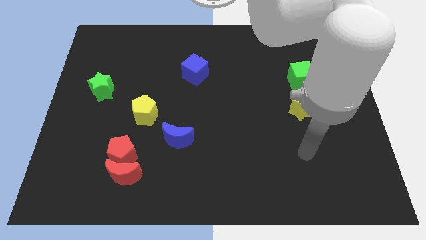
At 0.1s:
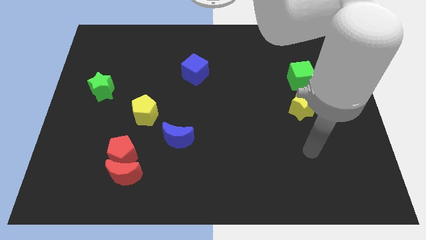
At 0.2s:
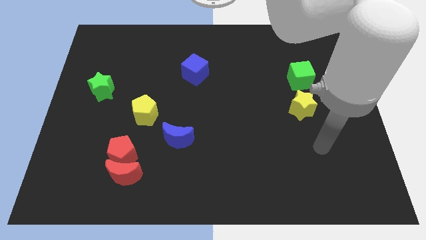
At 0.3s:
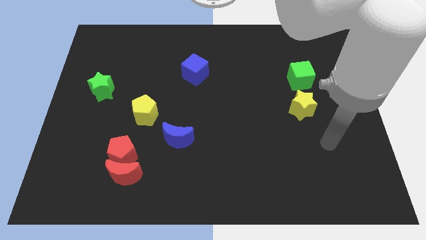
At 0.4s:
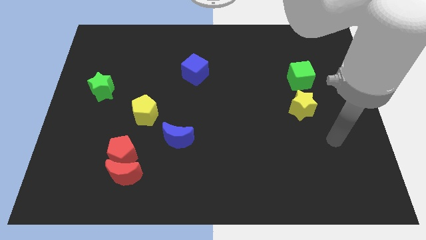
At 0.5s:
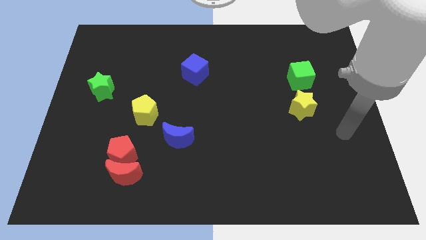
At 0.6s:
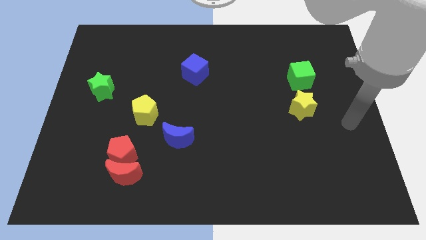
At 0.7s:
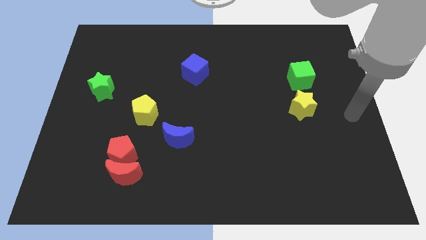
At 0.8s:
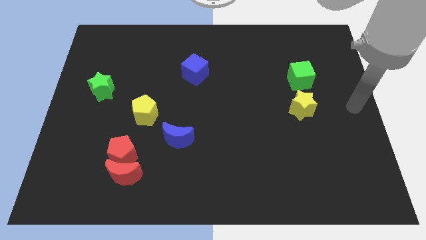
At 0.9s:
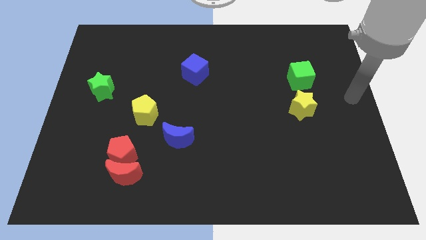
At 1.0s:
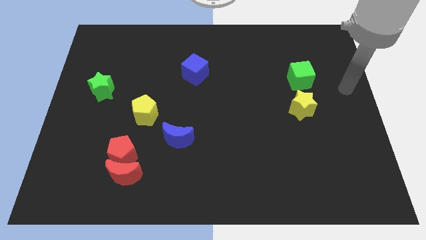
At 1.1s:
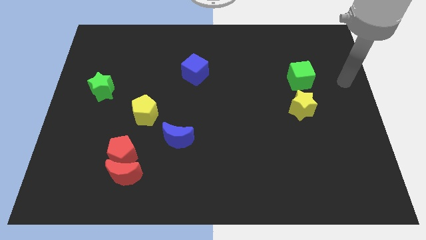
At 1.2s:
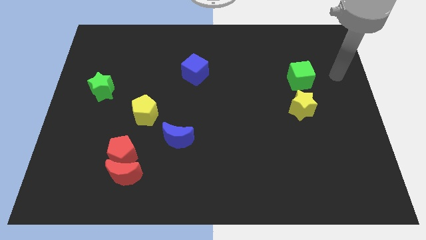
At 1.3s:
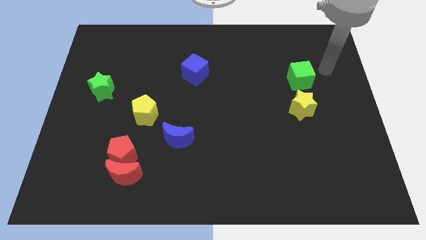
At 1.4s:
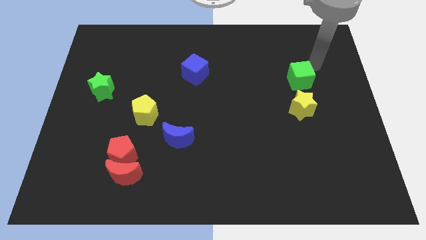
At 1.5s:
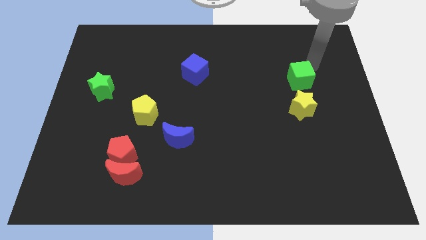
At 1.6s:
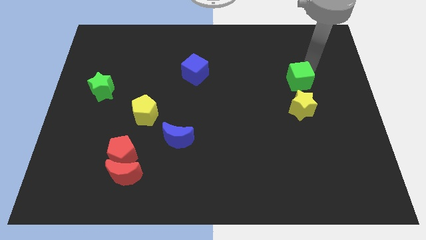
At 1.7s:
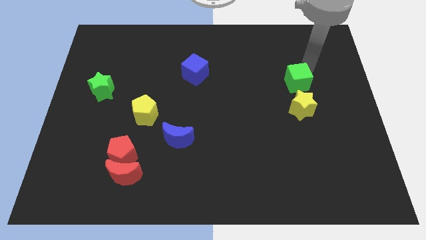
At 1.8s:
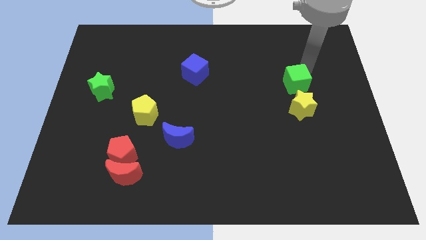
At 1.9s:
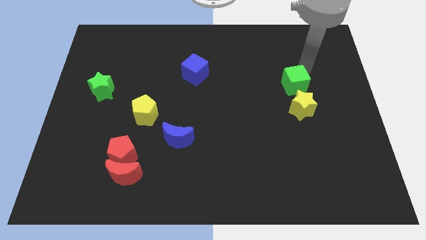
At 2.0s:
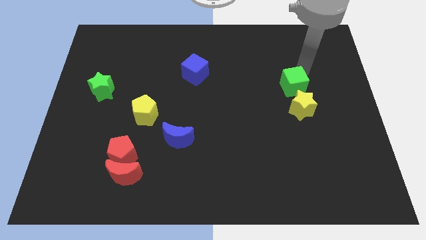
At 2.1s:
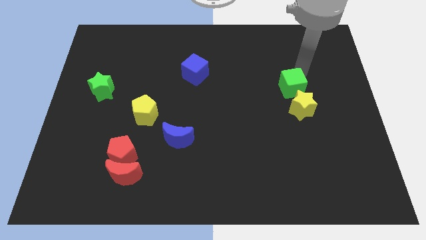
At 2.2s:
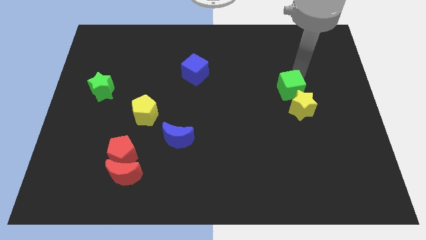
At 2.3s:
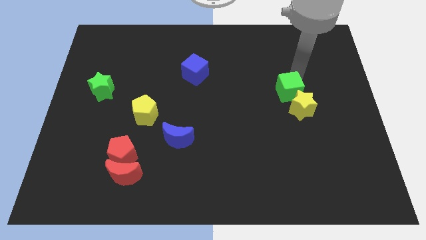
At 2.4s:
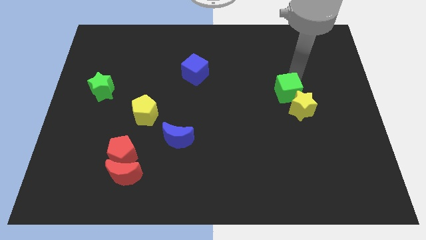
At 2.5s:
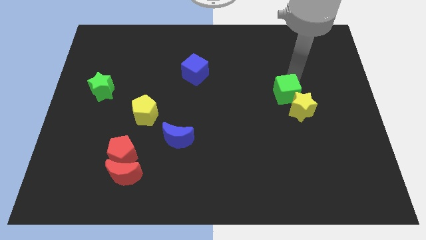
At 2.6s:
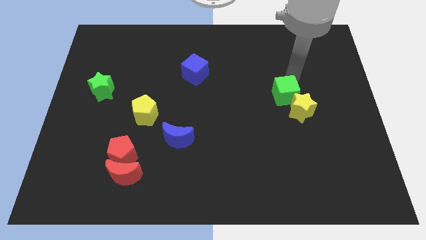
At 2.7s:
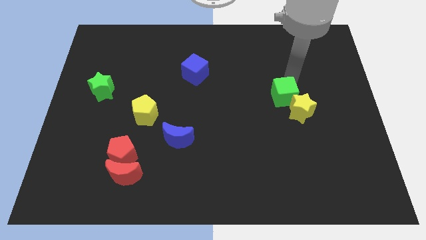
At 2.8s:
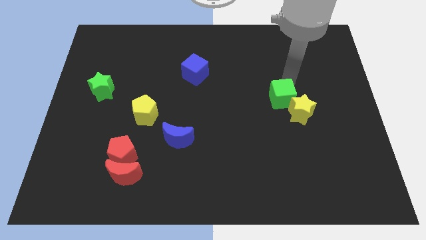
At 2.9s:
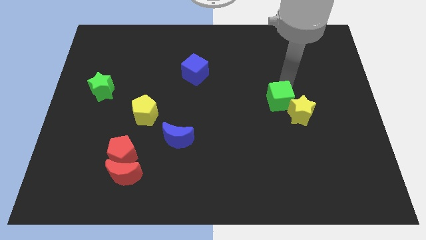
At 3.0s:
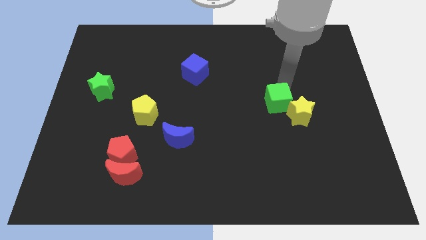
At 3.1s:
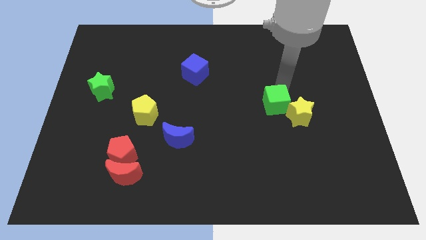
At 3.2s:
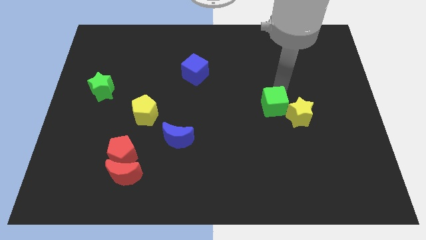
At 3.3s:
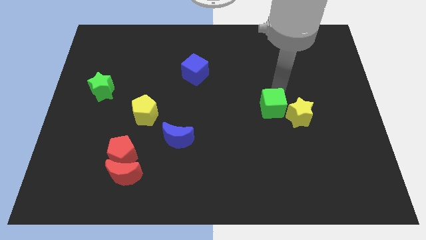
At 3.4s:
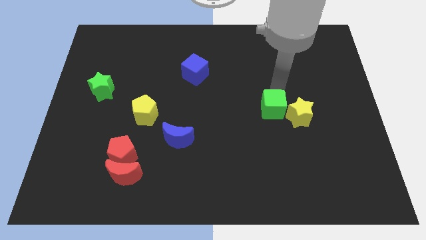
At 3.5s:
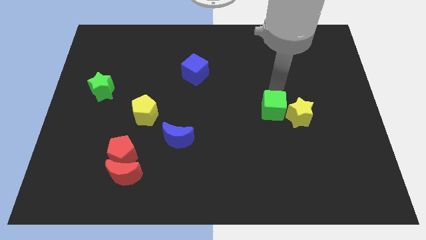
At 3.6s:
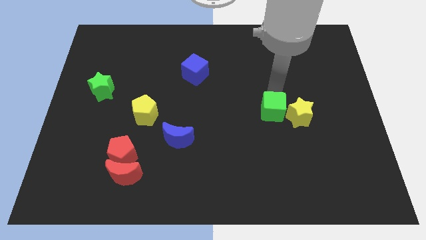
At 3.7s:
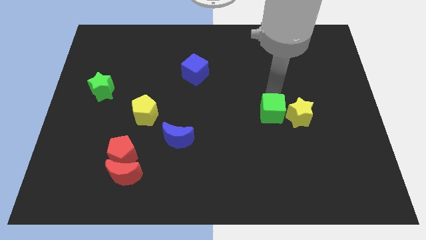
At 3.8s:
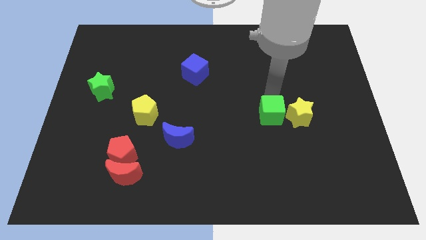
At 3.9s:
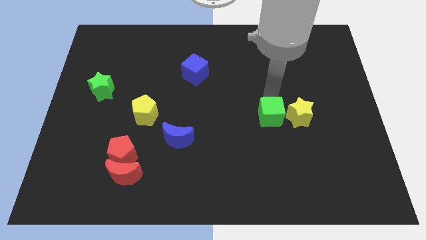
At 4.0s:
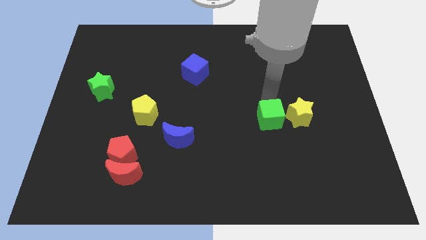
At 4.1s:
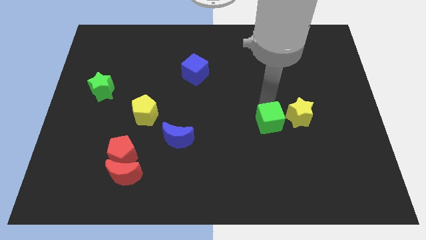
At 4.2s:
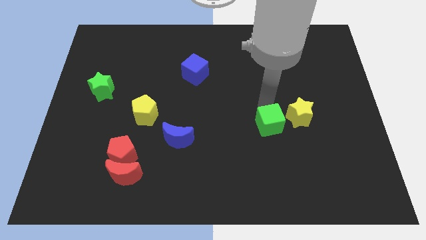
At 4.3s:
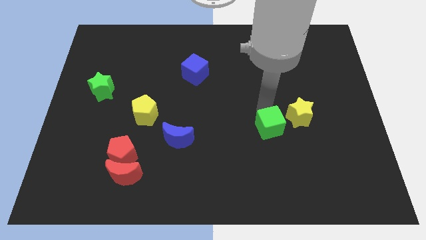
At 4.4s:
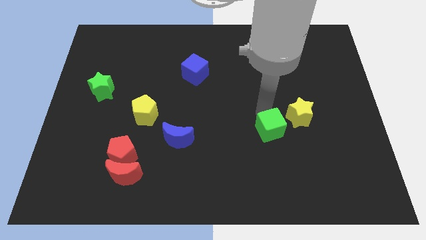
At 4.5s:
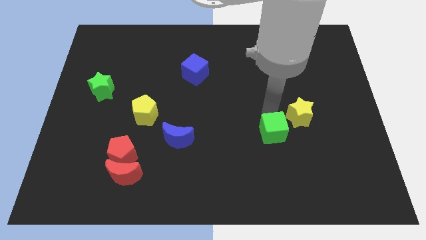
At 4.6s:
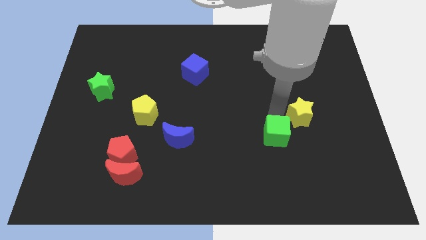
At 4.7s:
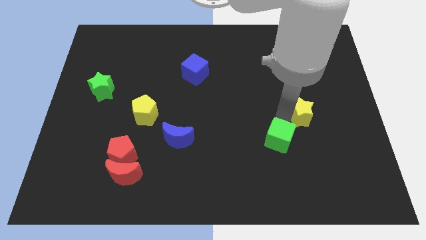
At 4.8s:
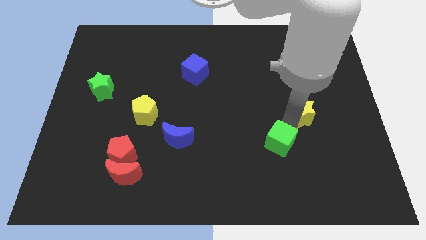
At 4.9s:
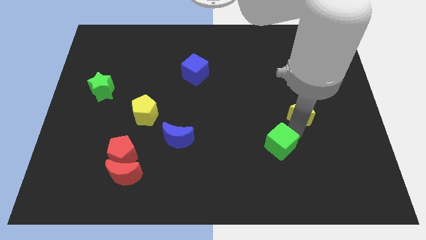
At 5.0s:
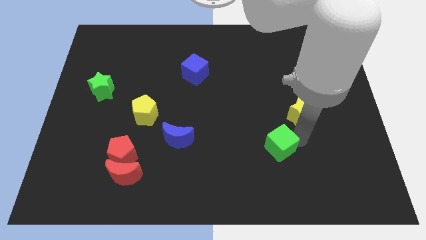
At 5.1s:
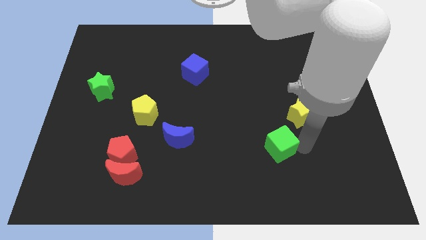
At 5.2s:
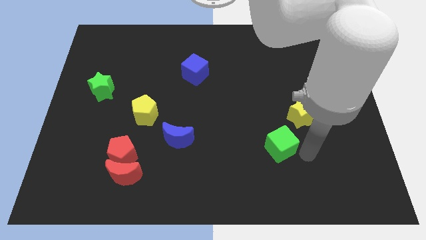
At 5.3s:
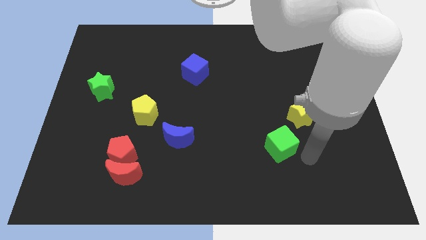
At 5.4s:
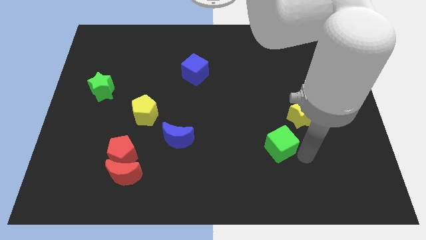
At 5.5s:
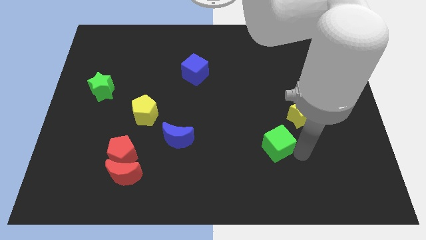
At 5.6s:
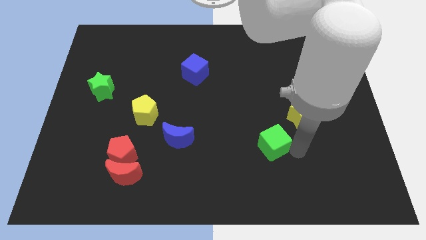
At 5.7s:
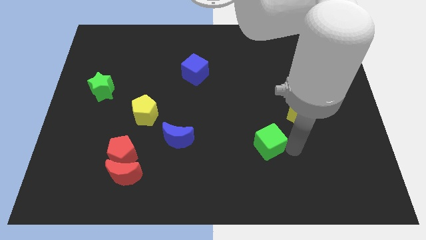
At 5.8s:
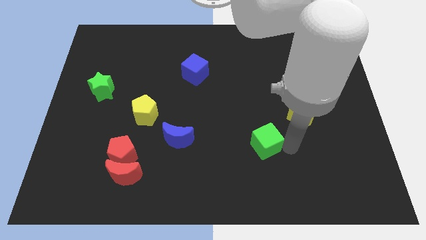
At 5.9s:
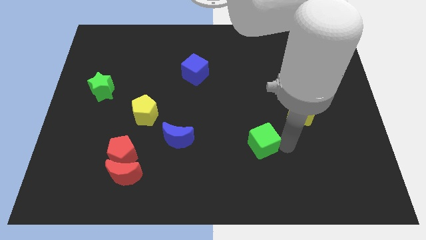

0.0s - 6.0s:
slide the green cube diagonally down and left

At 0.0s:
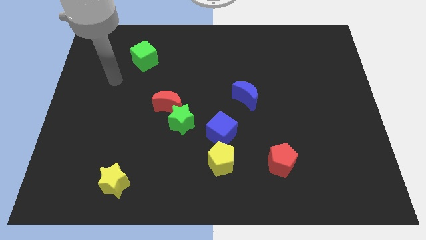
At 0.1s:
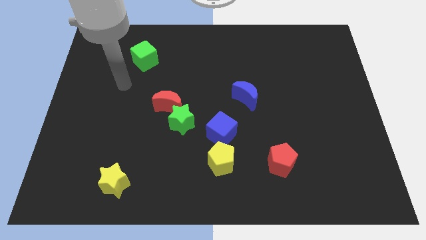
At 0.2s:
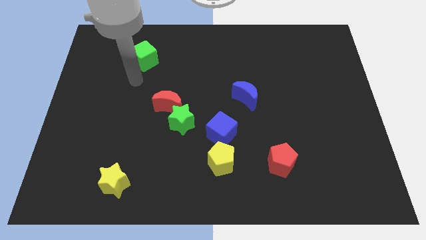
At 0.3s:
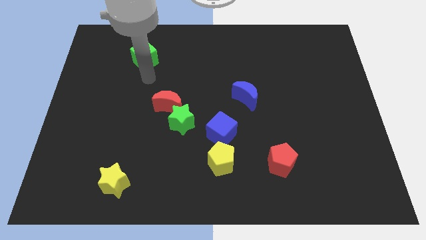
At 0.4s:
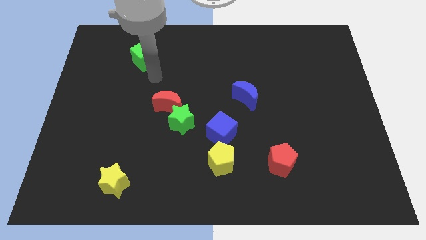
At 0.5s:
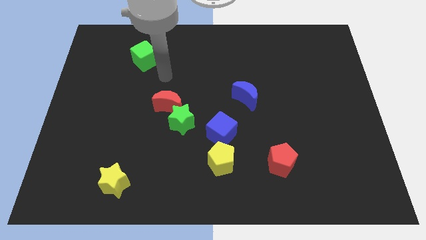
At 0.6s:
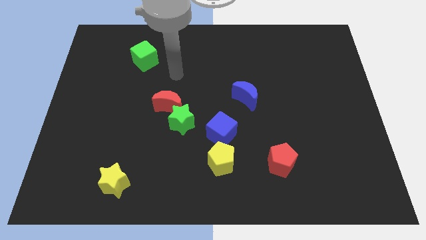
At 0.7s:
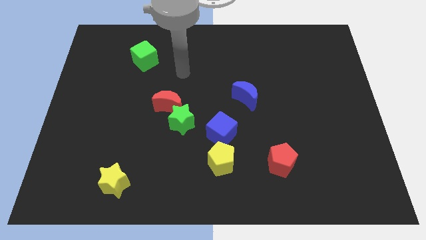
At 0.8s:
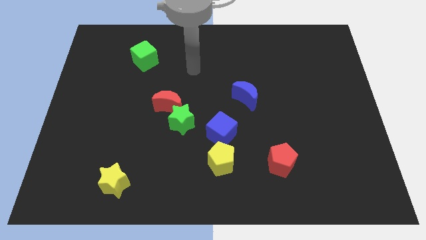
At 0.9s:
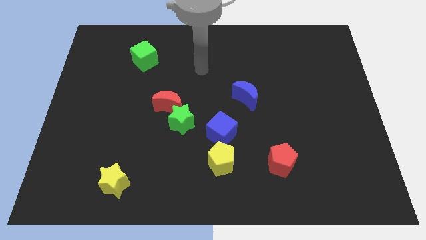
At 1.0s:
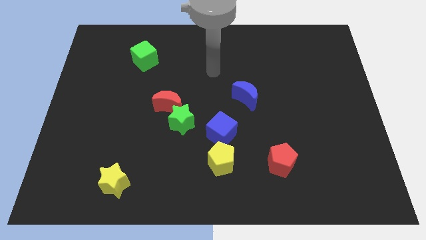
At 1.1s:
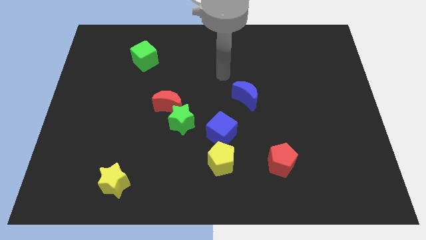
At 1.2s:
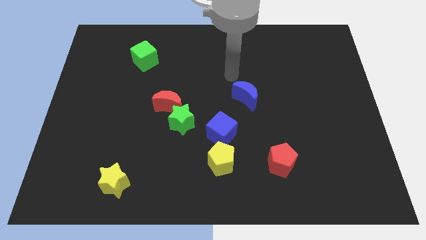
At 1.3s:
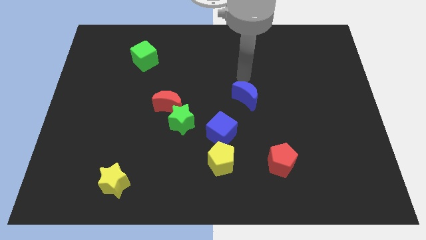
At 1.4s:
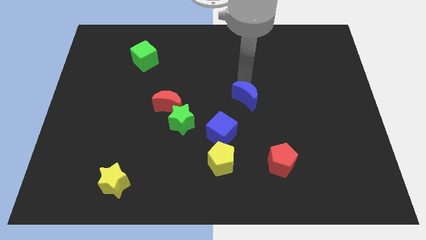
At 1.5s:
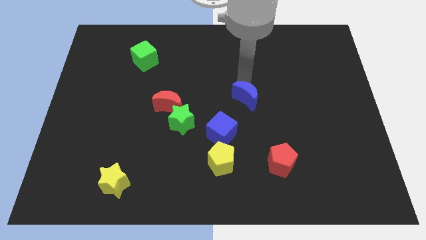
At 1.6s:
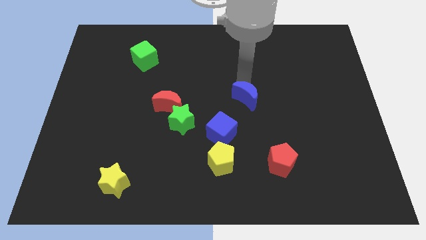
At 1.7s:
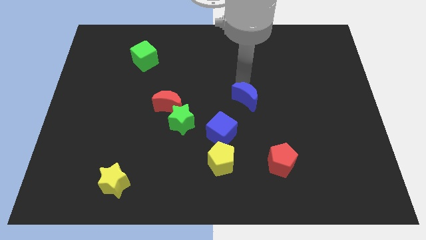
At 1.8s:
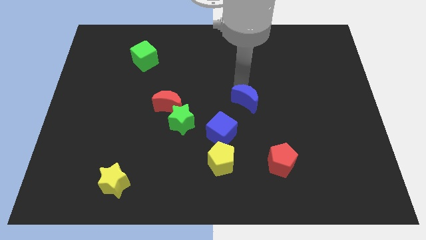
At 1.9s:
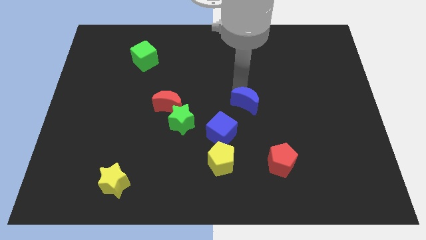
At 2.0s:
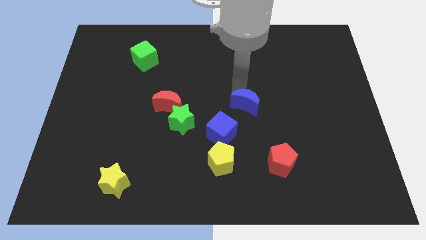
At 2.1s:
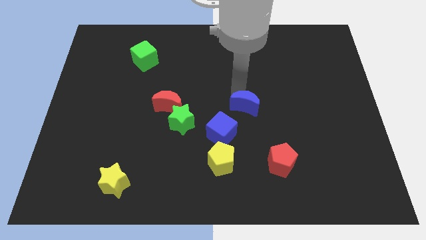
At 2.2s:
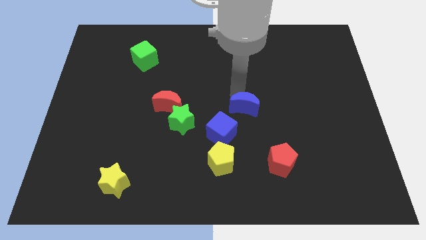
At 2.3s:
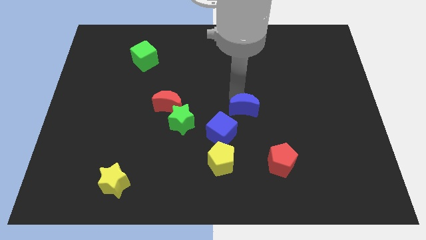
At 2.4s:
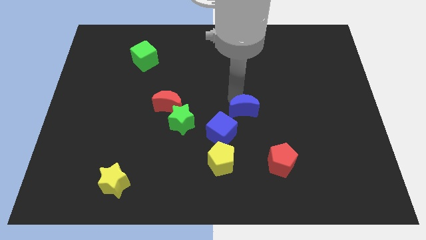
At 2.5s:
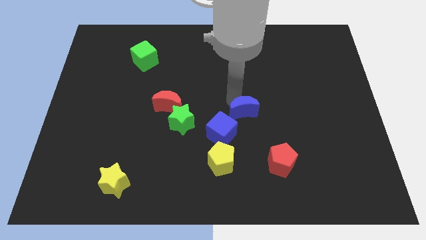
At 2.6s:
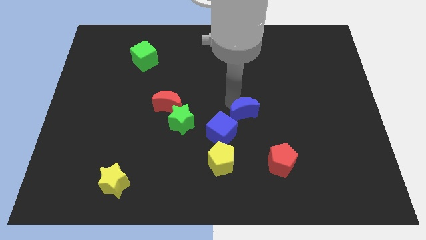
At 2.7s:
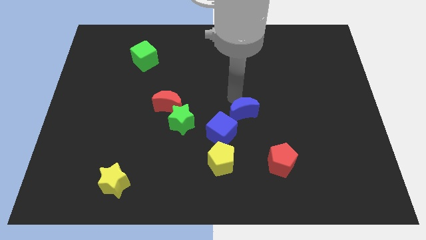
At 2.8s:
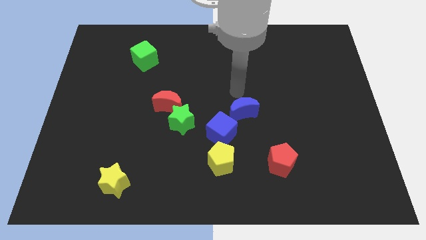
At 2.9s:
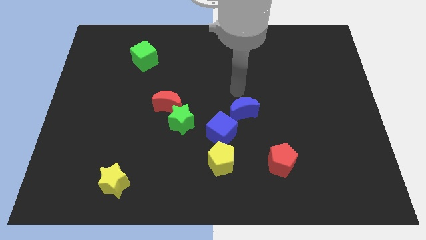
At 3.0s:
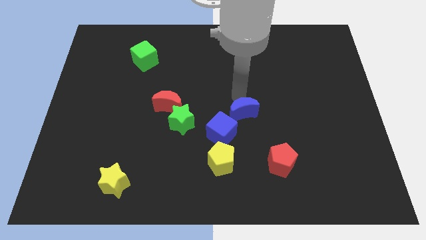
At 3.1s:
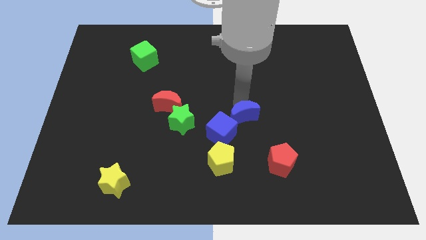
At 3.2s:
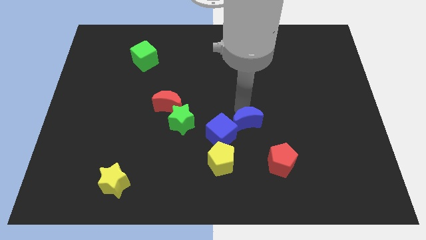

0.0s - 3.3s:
slightly push the blue moon downwards
